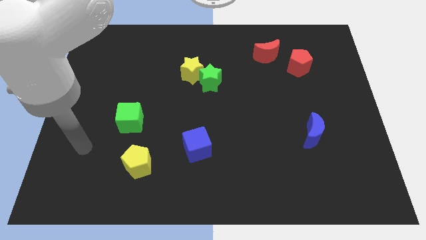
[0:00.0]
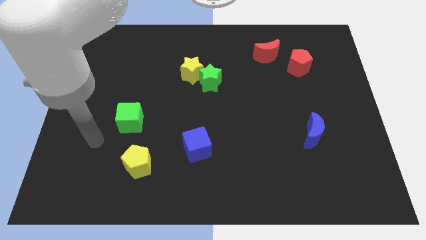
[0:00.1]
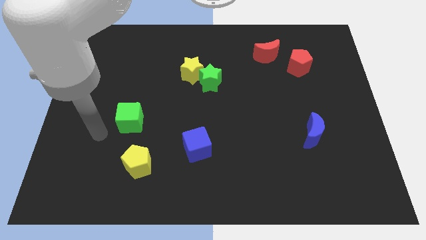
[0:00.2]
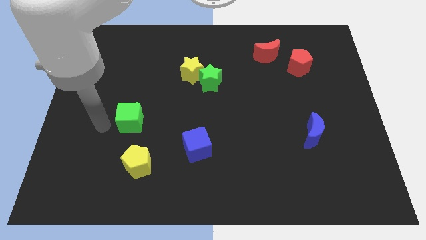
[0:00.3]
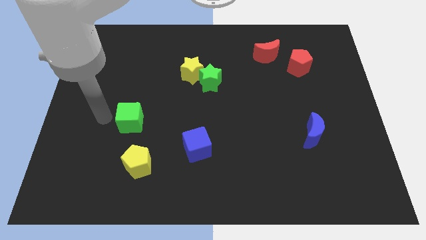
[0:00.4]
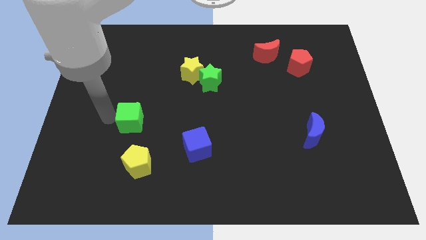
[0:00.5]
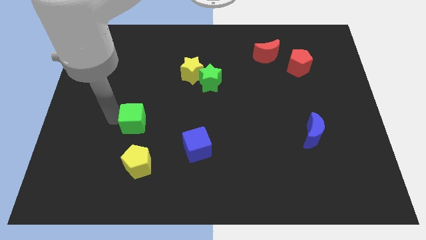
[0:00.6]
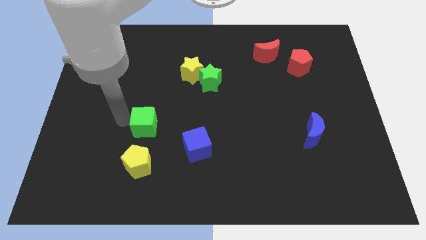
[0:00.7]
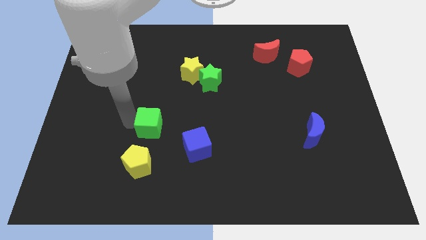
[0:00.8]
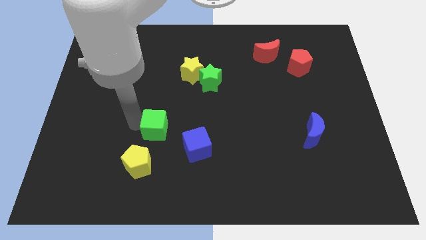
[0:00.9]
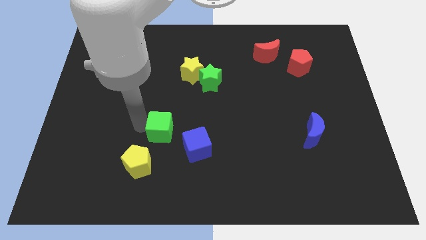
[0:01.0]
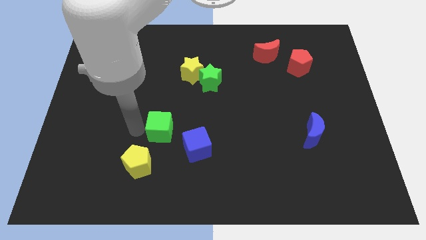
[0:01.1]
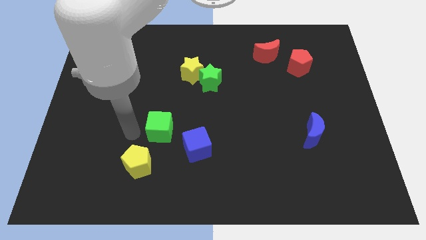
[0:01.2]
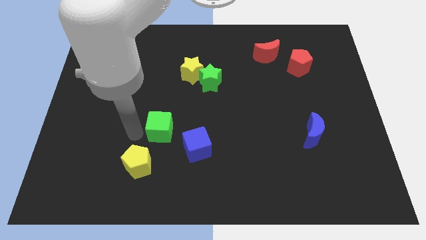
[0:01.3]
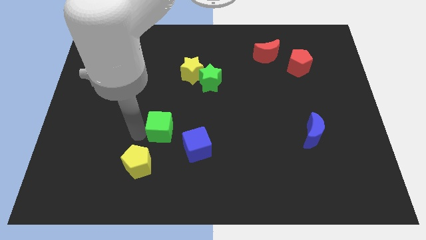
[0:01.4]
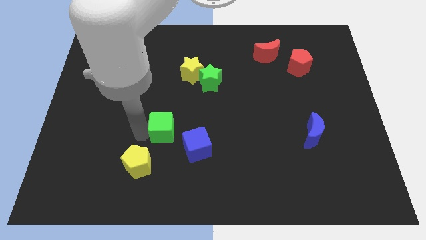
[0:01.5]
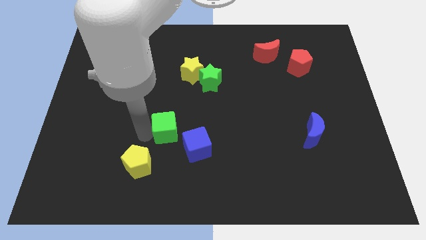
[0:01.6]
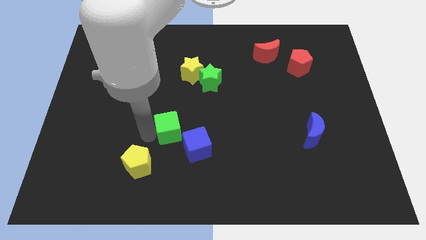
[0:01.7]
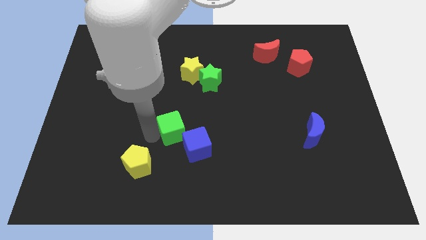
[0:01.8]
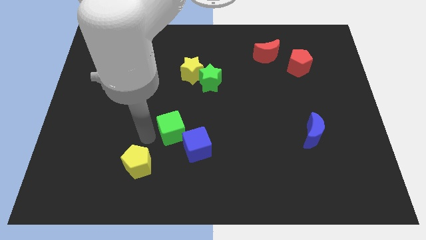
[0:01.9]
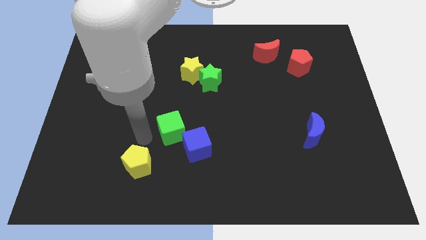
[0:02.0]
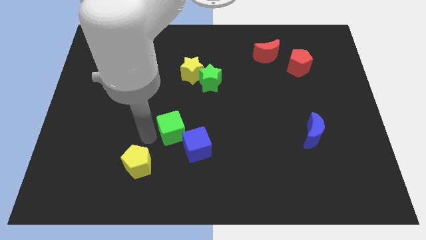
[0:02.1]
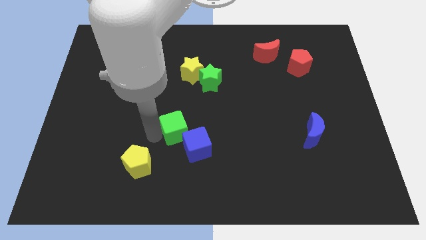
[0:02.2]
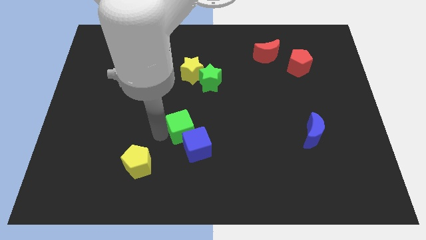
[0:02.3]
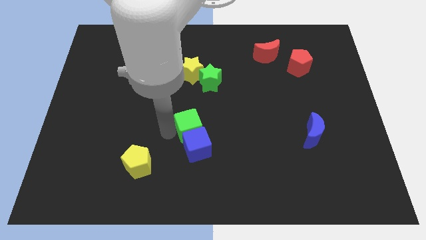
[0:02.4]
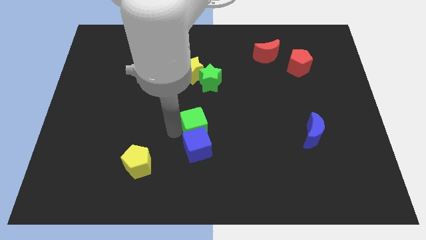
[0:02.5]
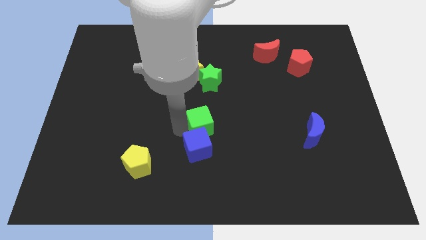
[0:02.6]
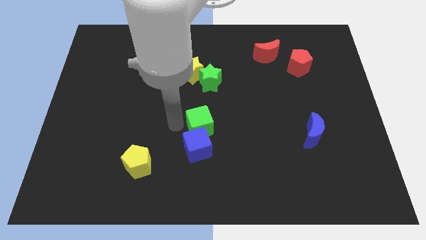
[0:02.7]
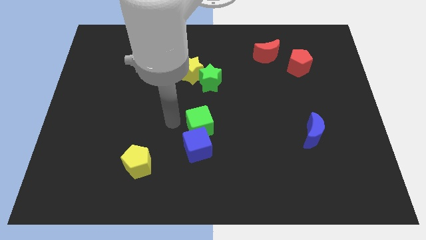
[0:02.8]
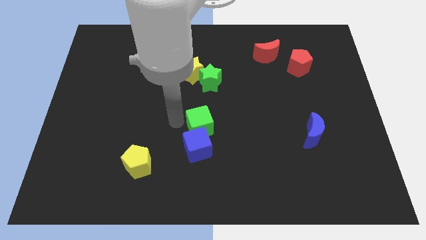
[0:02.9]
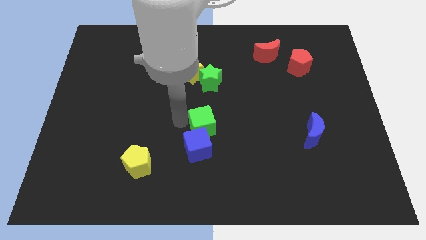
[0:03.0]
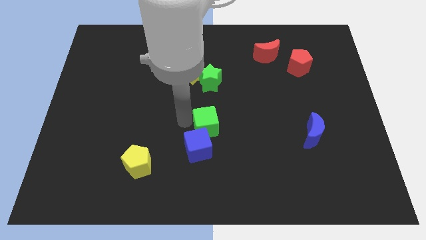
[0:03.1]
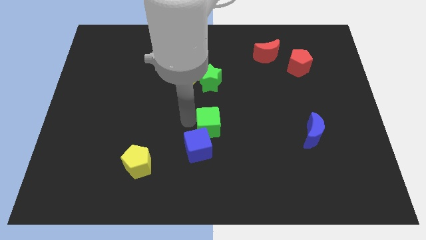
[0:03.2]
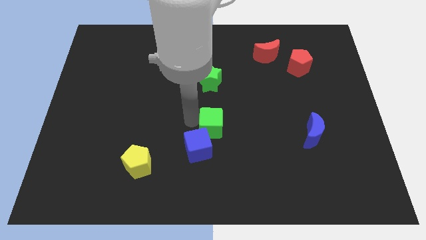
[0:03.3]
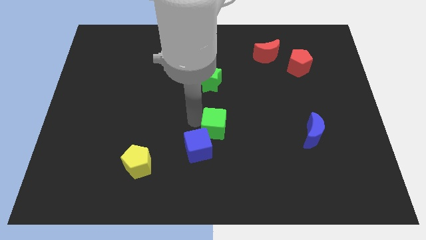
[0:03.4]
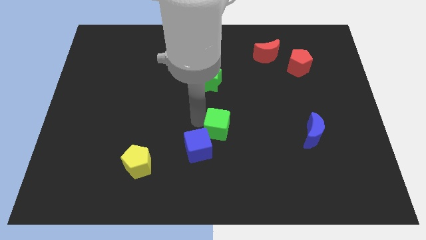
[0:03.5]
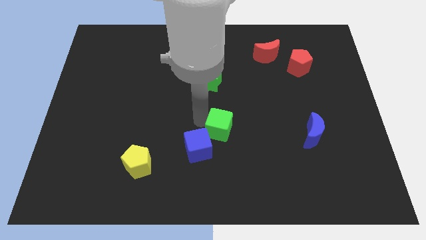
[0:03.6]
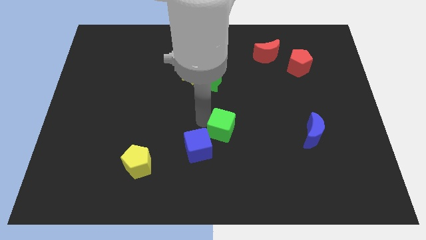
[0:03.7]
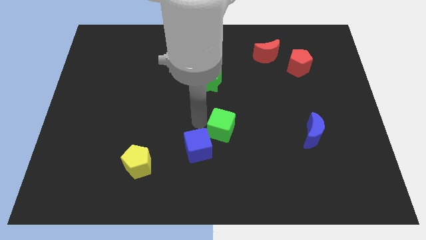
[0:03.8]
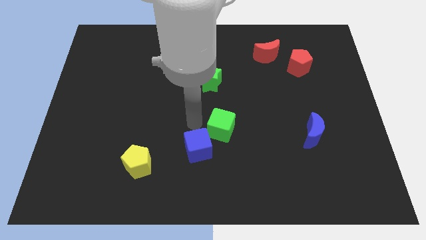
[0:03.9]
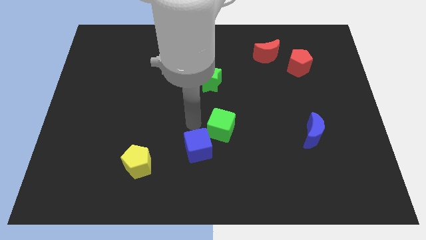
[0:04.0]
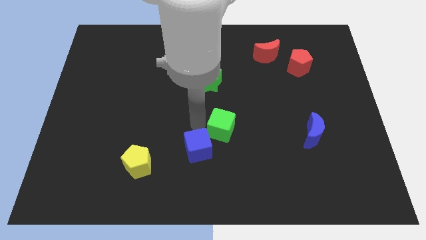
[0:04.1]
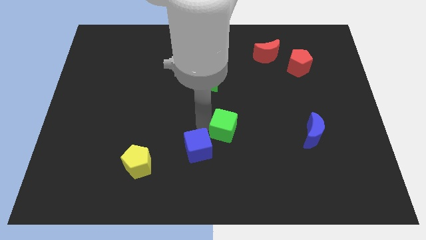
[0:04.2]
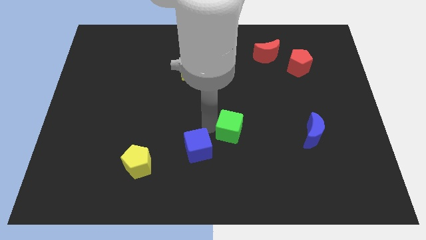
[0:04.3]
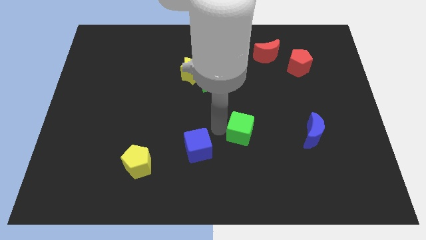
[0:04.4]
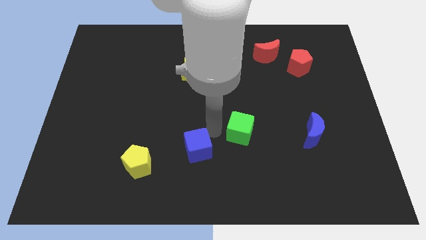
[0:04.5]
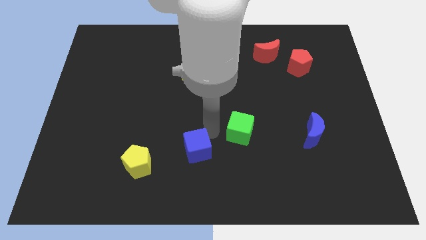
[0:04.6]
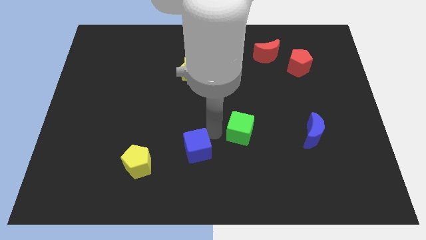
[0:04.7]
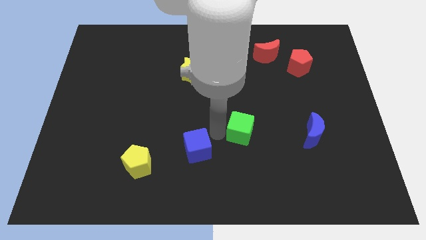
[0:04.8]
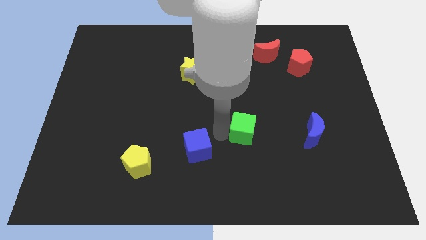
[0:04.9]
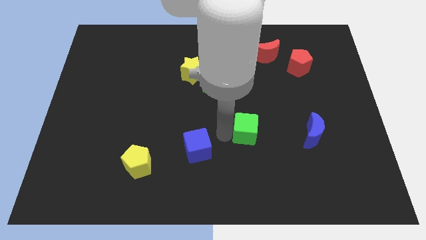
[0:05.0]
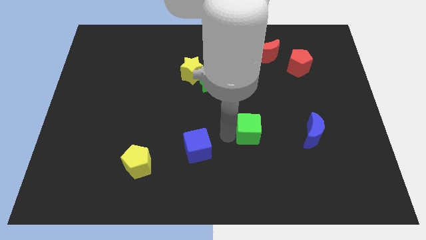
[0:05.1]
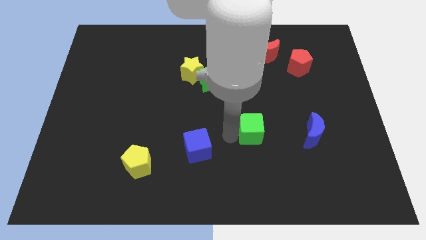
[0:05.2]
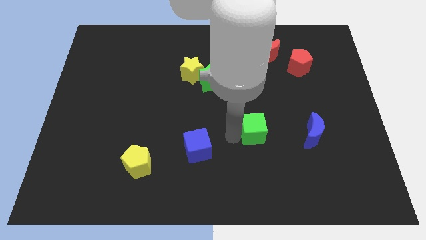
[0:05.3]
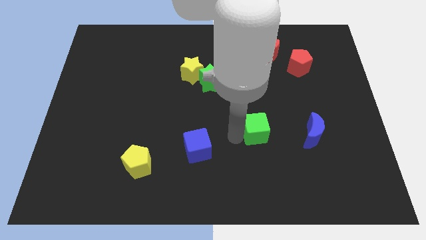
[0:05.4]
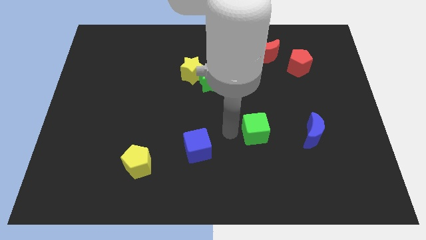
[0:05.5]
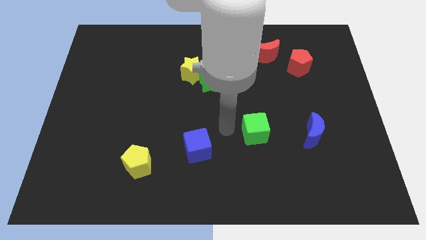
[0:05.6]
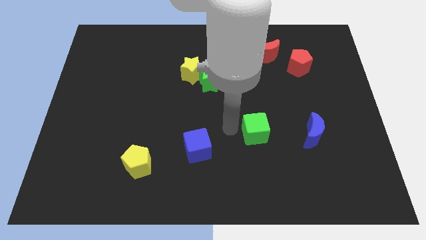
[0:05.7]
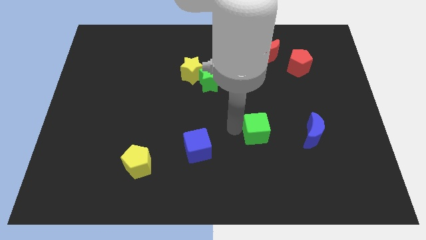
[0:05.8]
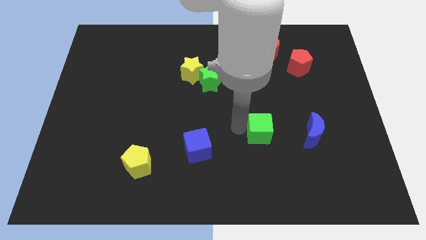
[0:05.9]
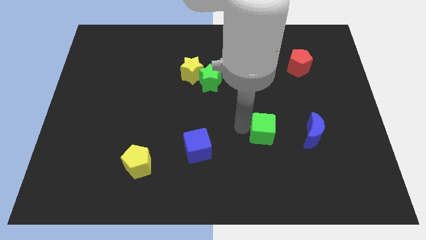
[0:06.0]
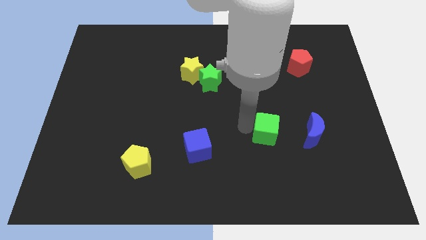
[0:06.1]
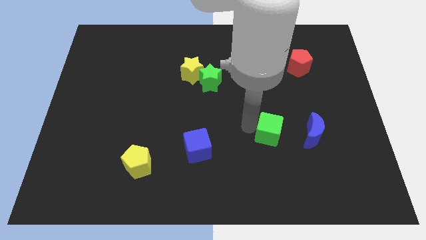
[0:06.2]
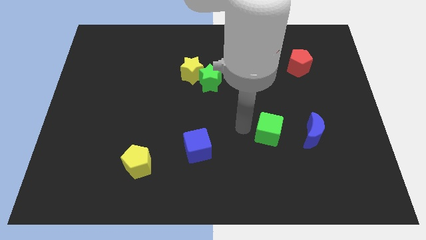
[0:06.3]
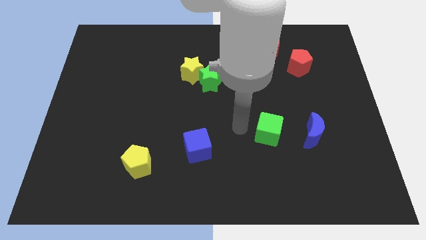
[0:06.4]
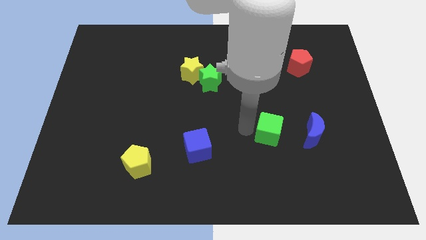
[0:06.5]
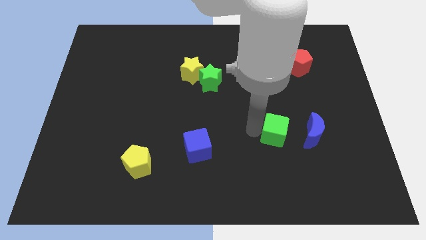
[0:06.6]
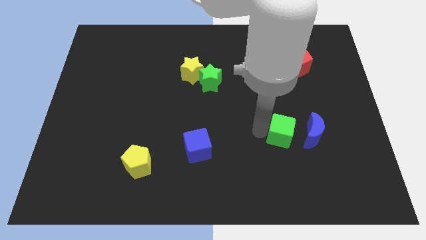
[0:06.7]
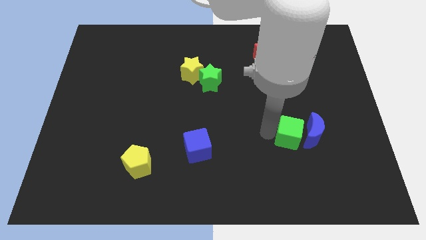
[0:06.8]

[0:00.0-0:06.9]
slide the green cube next to the blue moon

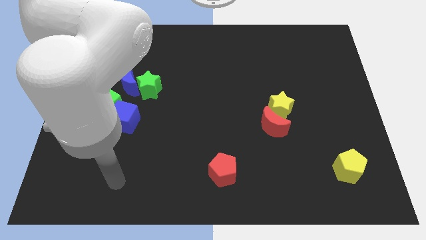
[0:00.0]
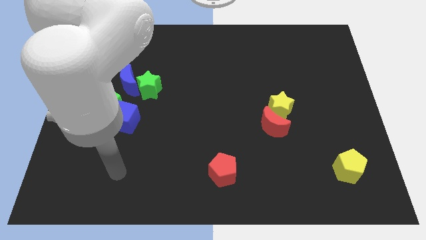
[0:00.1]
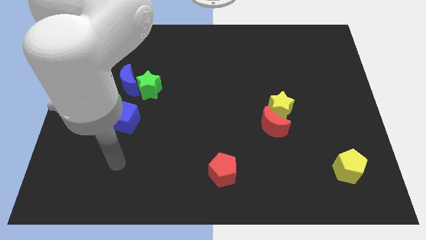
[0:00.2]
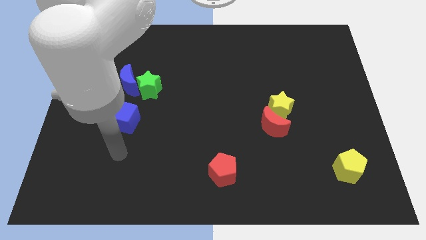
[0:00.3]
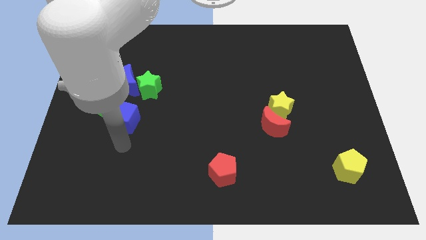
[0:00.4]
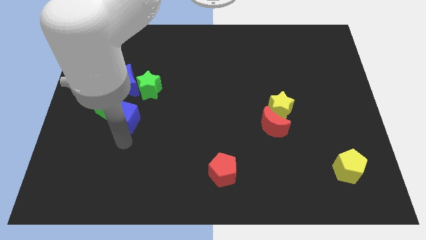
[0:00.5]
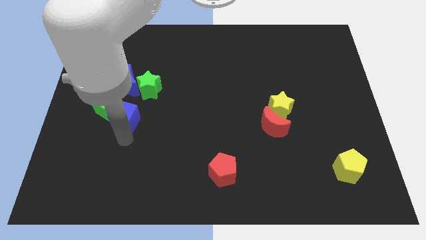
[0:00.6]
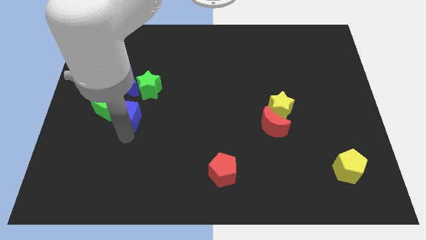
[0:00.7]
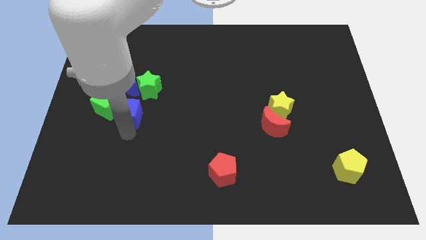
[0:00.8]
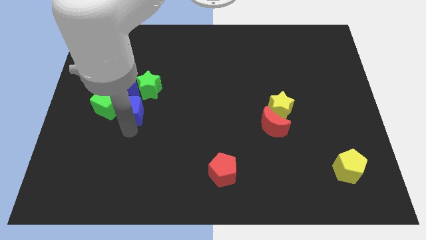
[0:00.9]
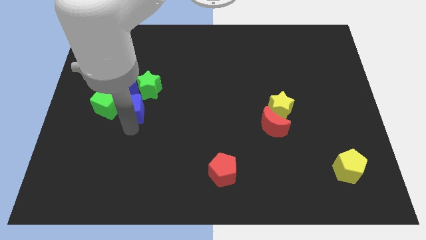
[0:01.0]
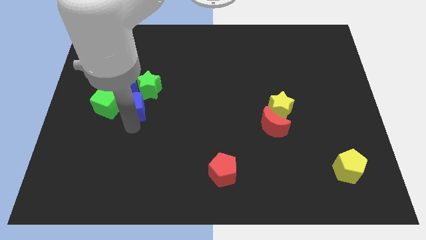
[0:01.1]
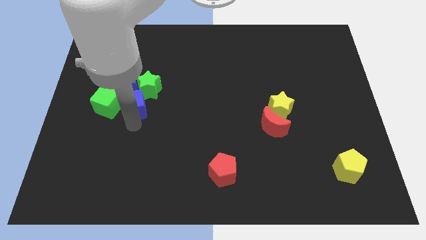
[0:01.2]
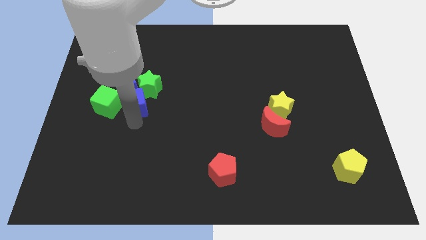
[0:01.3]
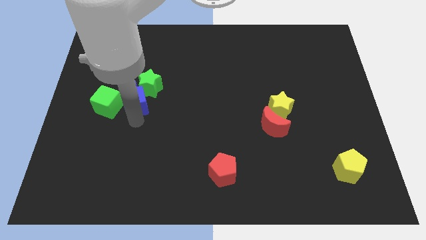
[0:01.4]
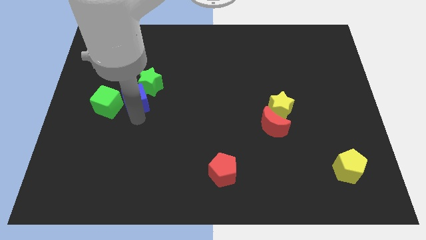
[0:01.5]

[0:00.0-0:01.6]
move the blue cube towards the blue moon
